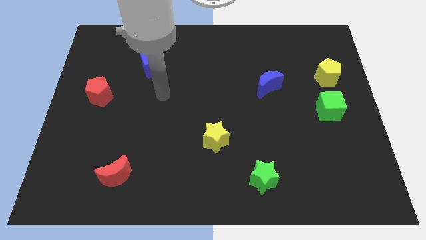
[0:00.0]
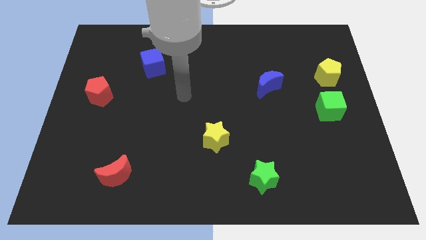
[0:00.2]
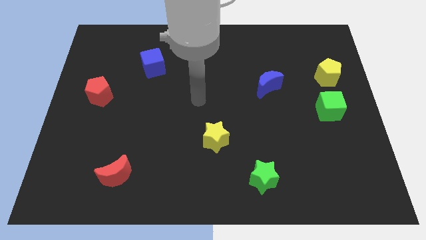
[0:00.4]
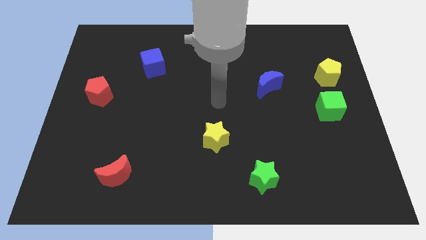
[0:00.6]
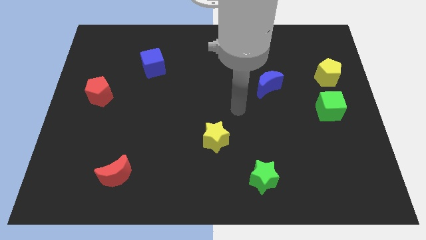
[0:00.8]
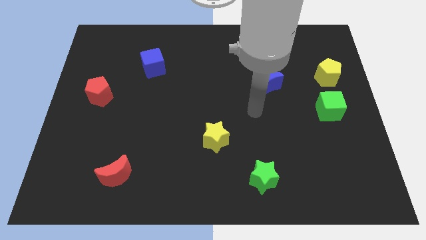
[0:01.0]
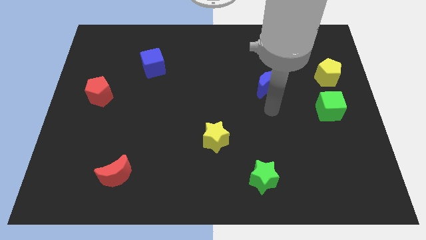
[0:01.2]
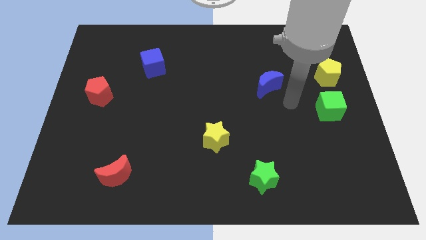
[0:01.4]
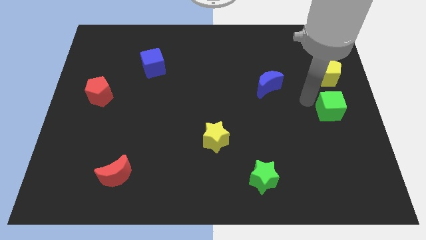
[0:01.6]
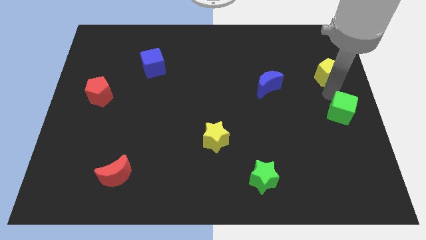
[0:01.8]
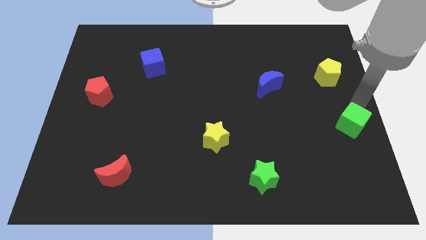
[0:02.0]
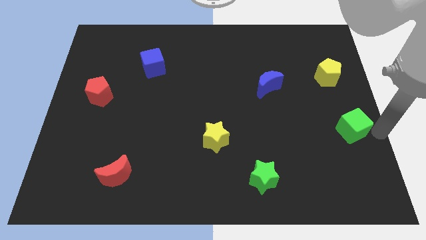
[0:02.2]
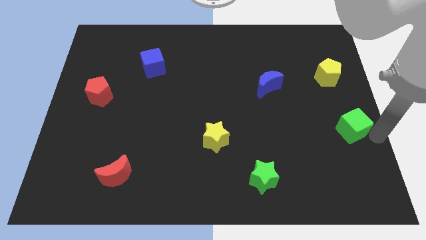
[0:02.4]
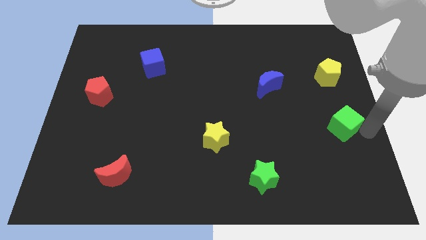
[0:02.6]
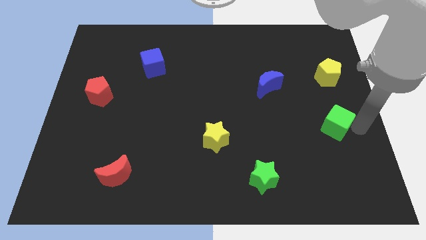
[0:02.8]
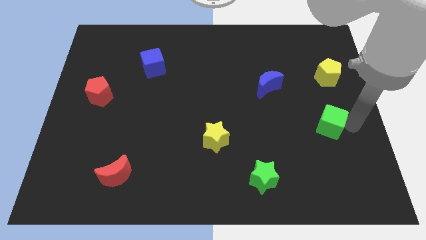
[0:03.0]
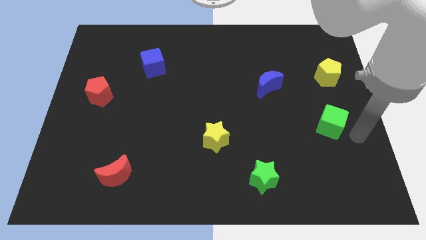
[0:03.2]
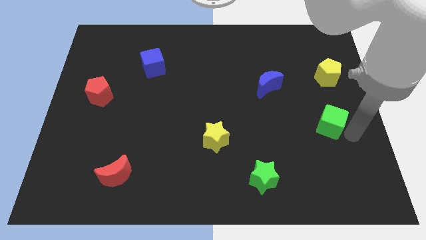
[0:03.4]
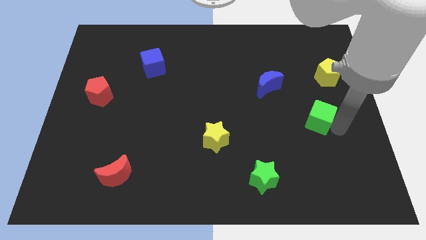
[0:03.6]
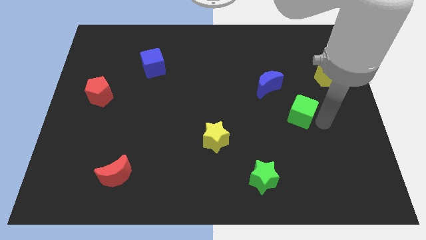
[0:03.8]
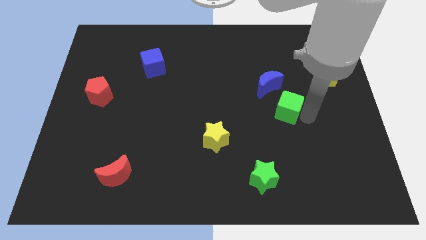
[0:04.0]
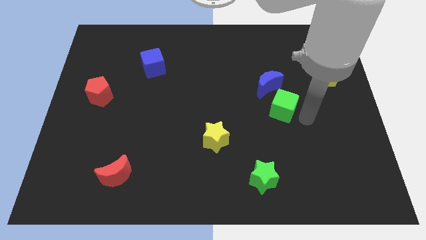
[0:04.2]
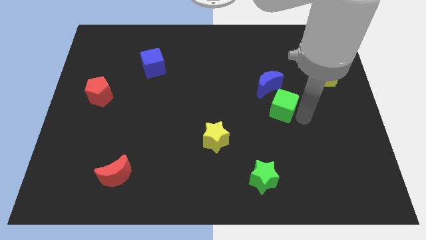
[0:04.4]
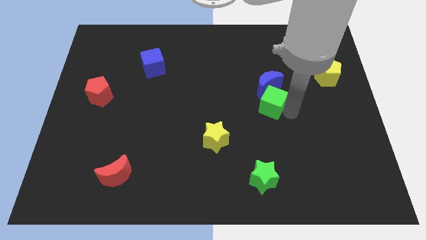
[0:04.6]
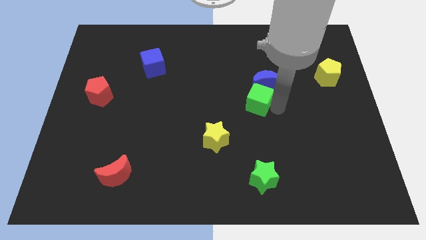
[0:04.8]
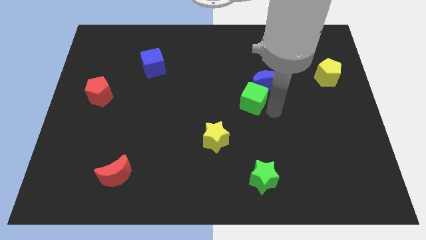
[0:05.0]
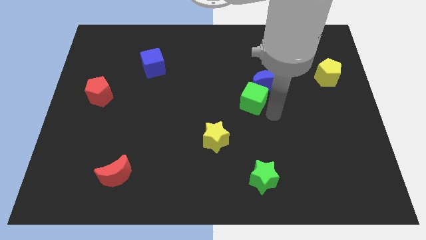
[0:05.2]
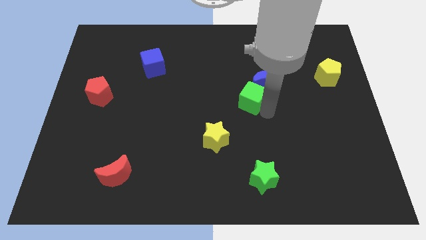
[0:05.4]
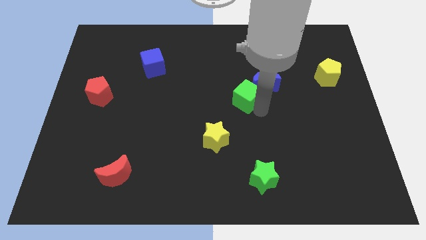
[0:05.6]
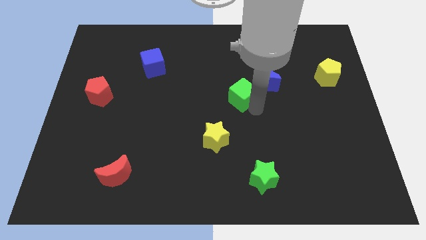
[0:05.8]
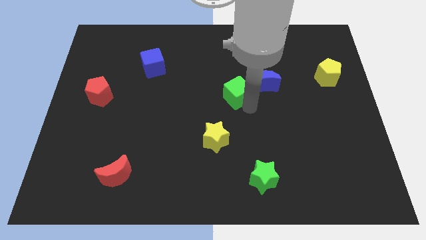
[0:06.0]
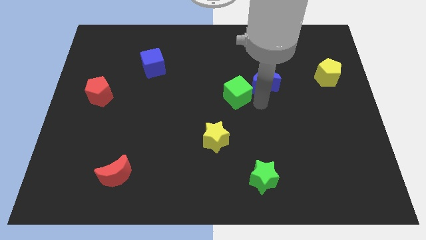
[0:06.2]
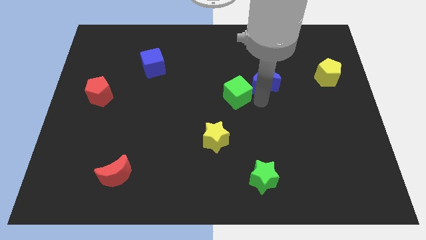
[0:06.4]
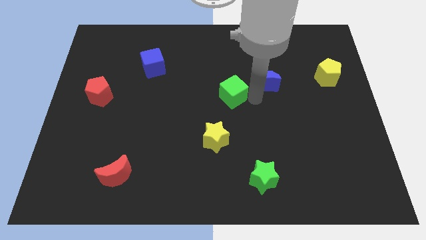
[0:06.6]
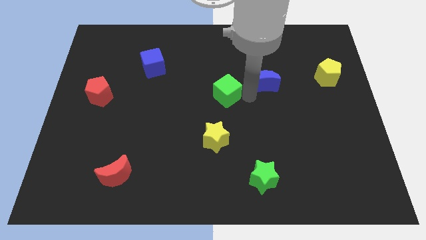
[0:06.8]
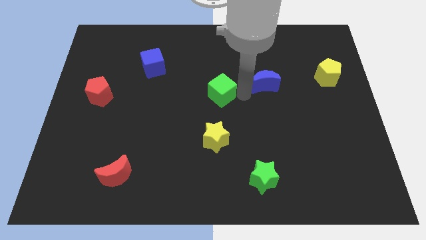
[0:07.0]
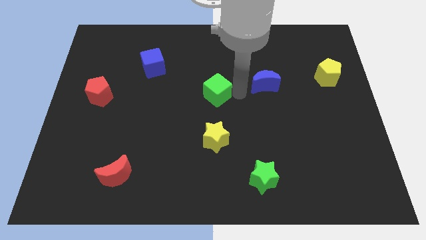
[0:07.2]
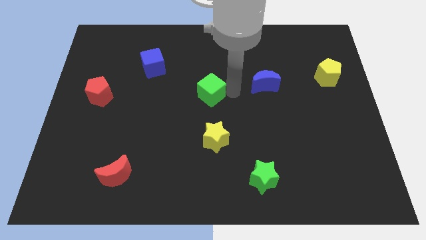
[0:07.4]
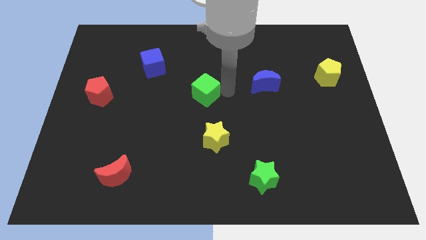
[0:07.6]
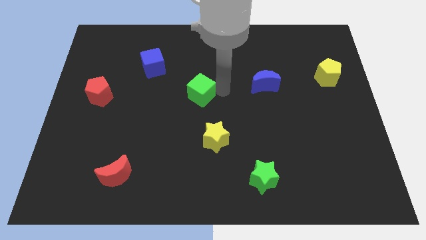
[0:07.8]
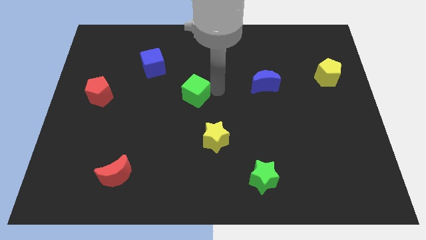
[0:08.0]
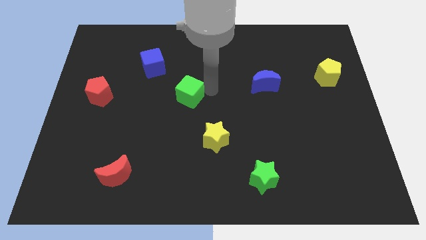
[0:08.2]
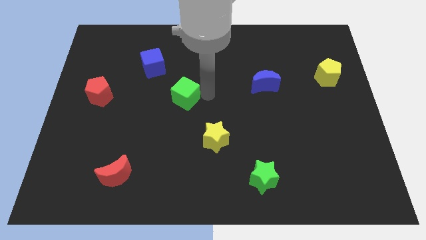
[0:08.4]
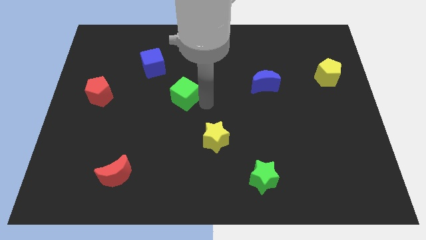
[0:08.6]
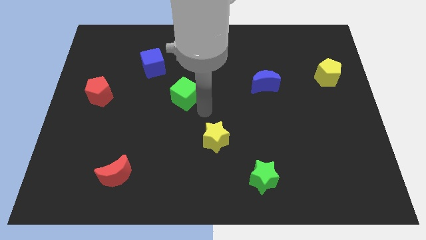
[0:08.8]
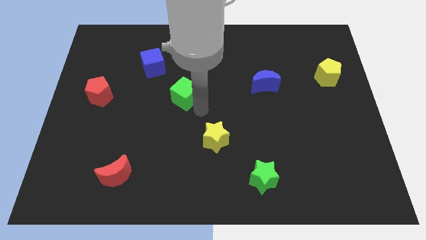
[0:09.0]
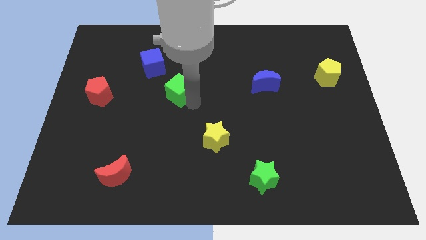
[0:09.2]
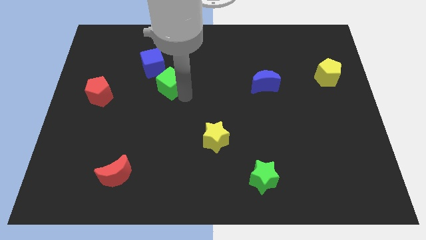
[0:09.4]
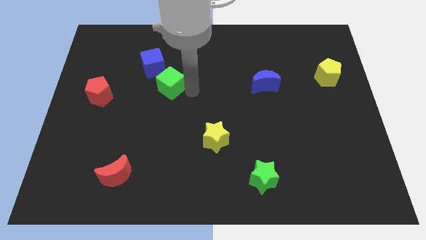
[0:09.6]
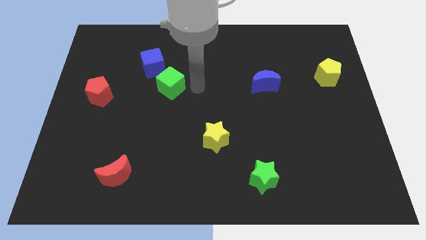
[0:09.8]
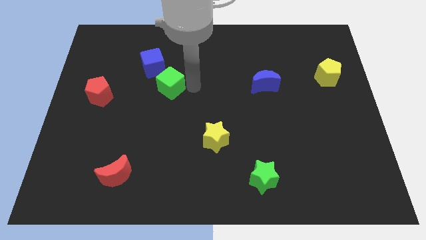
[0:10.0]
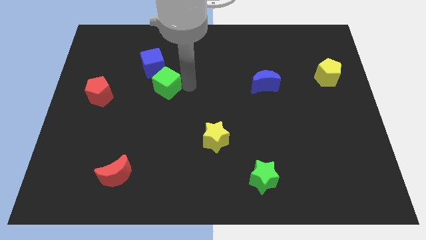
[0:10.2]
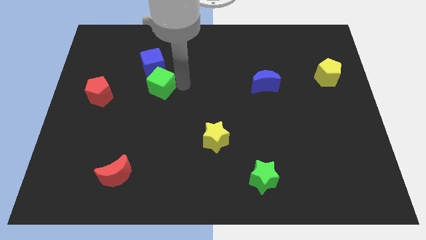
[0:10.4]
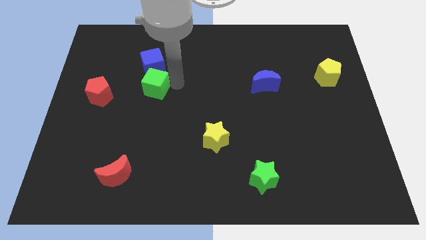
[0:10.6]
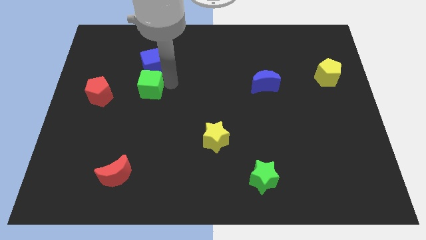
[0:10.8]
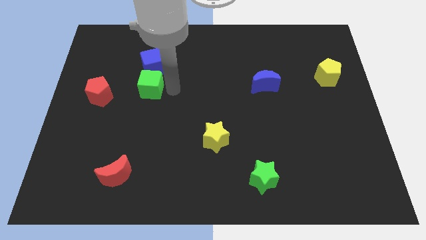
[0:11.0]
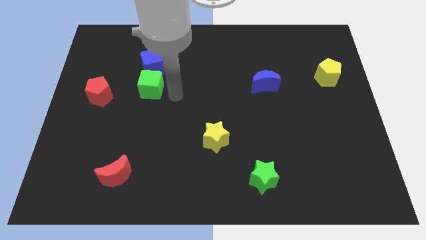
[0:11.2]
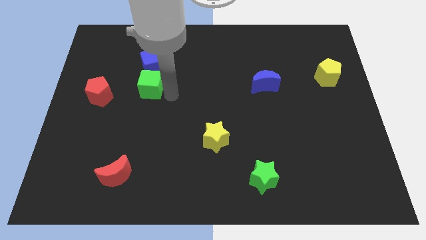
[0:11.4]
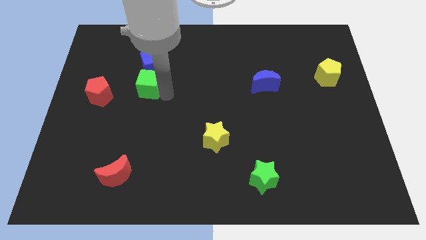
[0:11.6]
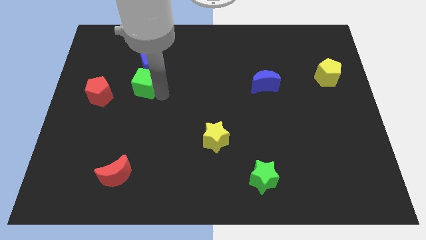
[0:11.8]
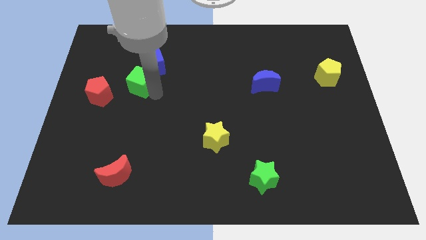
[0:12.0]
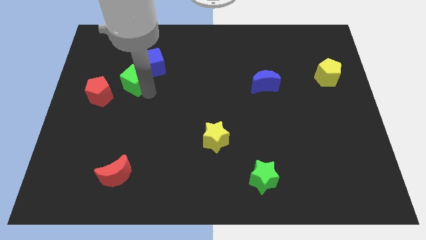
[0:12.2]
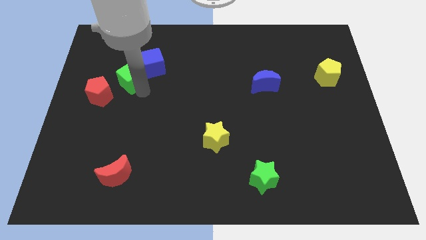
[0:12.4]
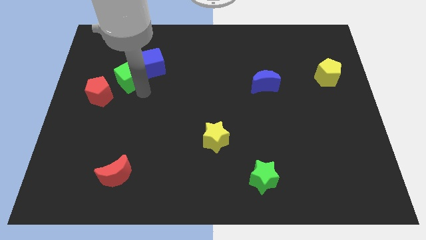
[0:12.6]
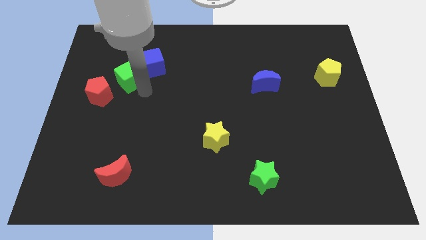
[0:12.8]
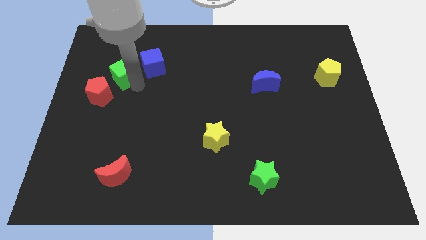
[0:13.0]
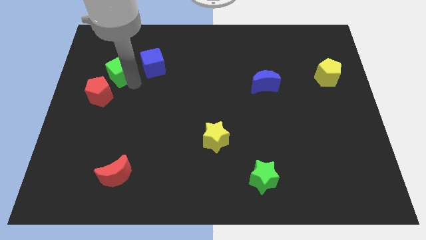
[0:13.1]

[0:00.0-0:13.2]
push the green cube to the top side of the red pentagon

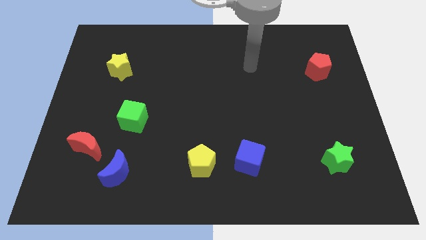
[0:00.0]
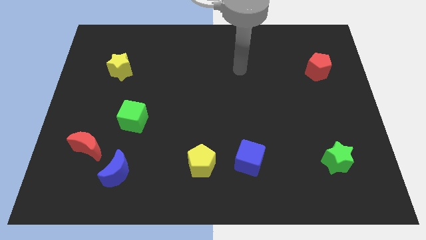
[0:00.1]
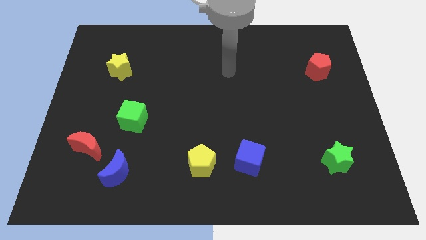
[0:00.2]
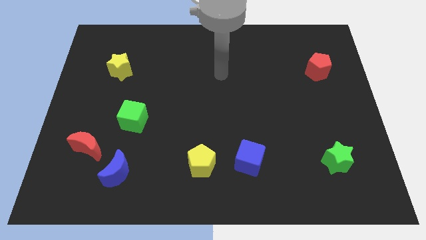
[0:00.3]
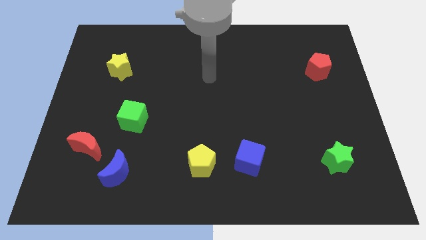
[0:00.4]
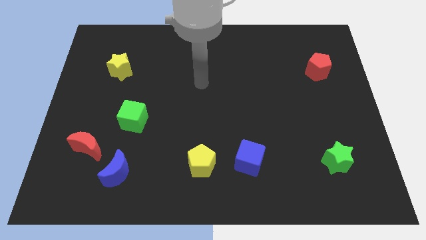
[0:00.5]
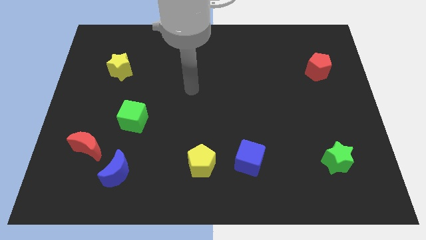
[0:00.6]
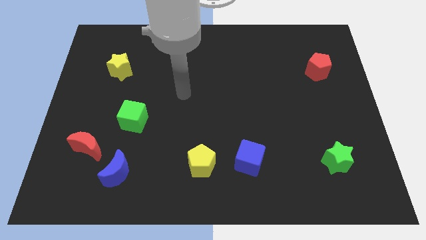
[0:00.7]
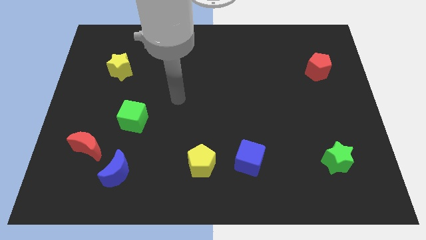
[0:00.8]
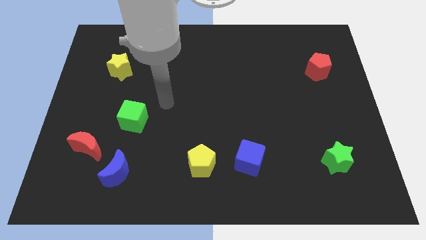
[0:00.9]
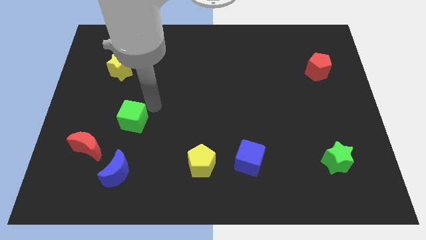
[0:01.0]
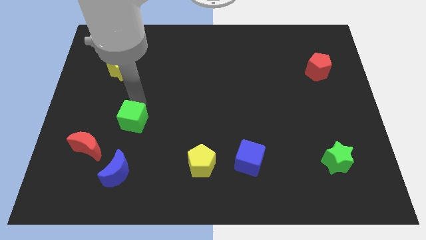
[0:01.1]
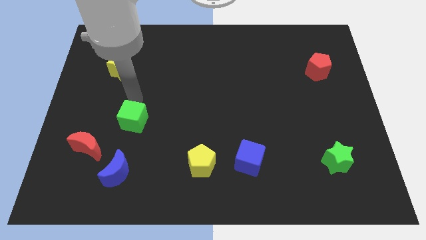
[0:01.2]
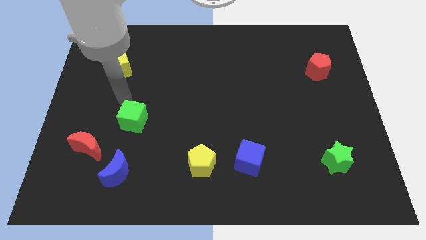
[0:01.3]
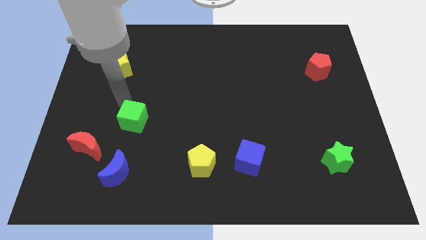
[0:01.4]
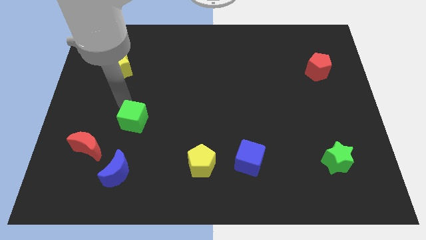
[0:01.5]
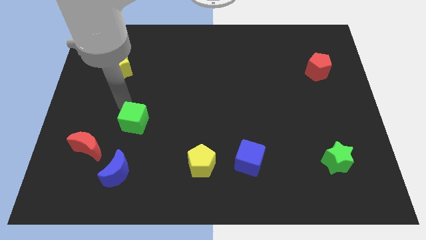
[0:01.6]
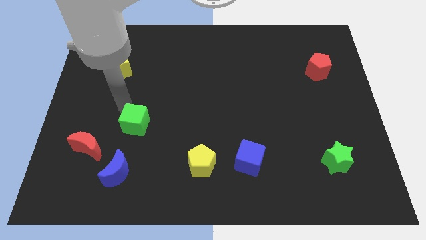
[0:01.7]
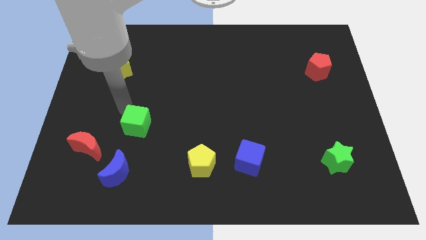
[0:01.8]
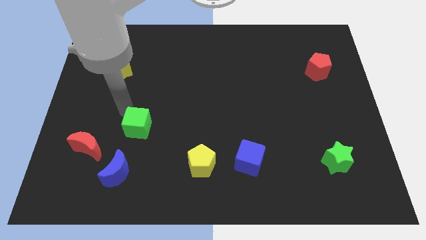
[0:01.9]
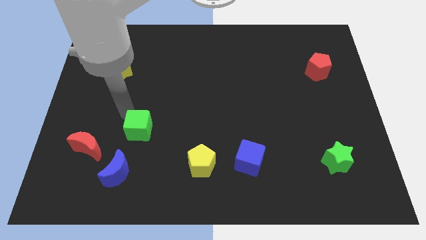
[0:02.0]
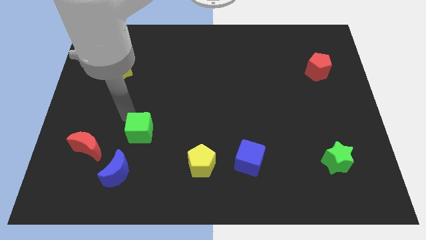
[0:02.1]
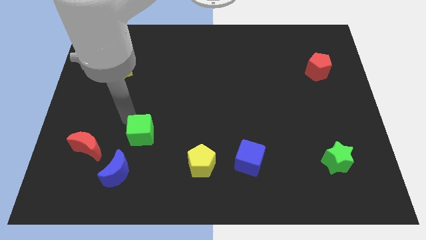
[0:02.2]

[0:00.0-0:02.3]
move the green cube diagonally up and to the right of the blue moon
